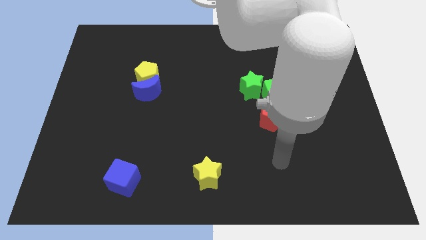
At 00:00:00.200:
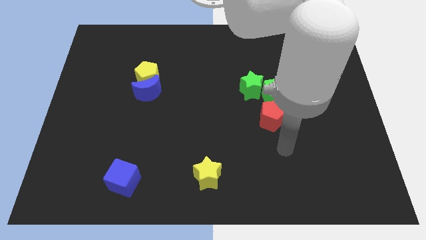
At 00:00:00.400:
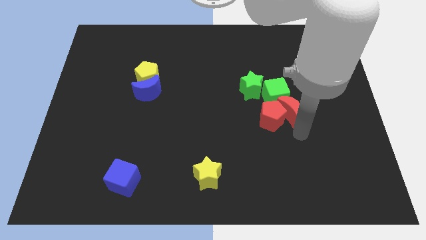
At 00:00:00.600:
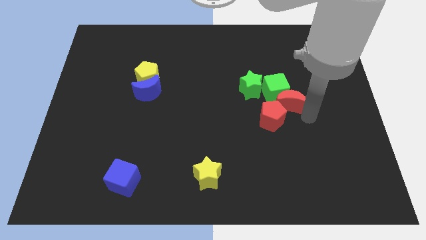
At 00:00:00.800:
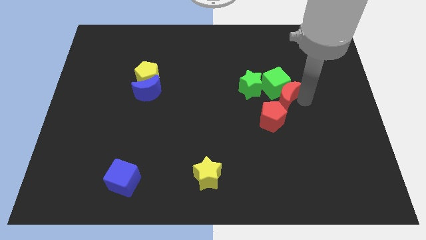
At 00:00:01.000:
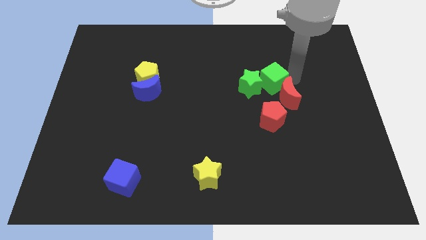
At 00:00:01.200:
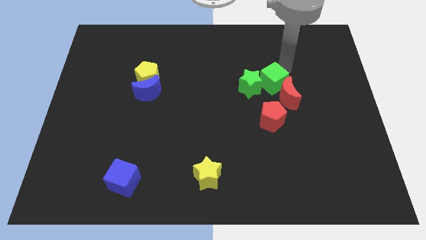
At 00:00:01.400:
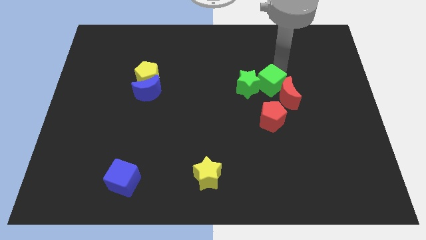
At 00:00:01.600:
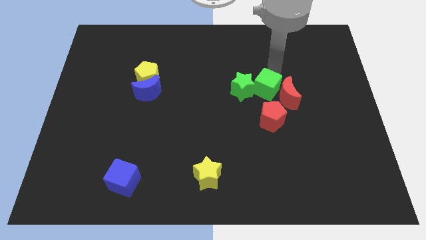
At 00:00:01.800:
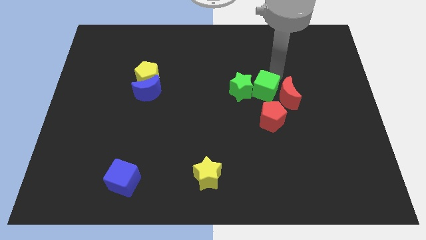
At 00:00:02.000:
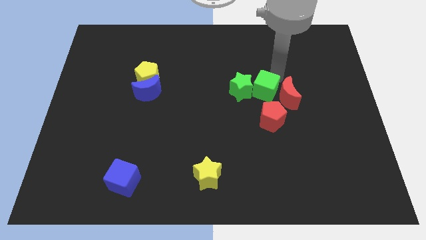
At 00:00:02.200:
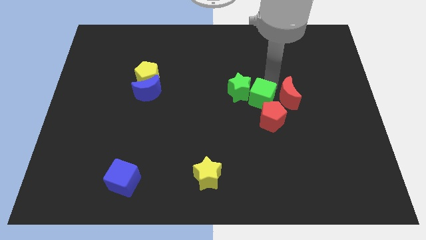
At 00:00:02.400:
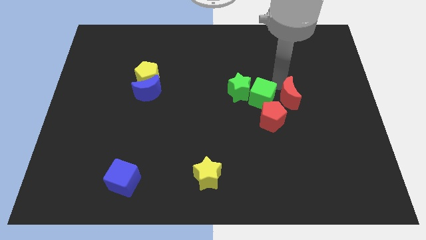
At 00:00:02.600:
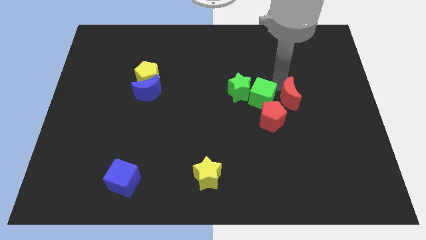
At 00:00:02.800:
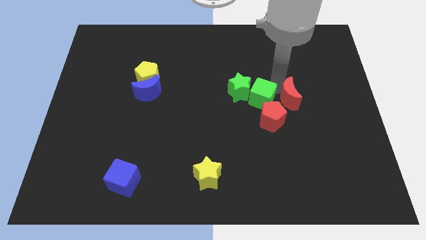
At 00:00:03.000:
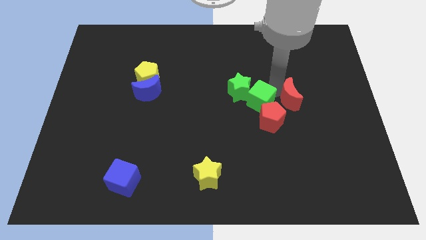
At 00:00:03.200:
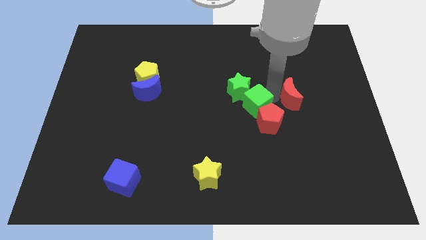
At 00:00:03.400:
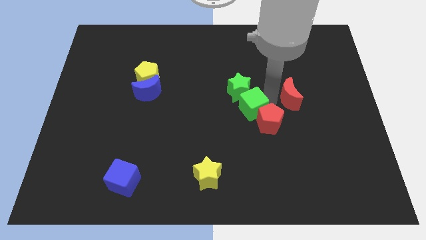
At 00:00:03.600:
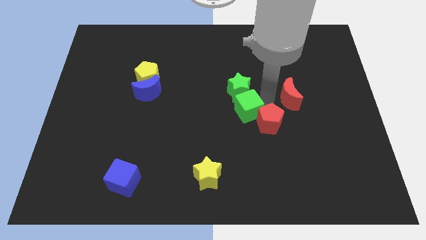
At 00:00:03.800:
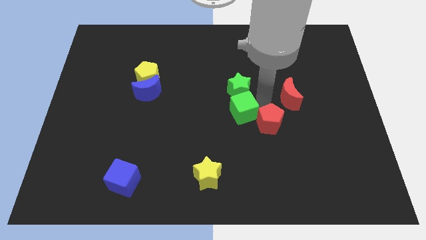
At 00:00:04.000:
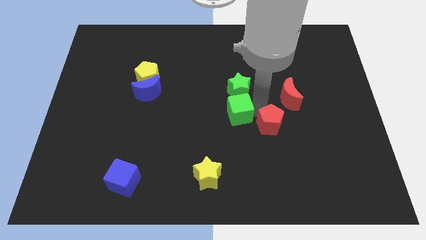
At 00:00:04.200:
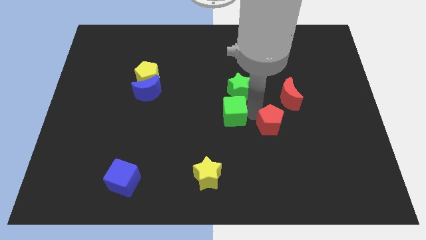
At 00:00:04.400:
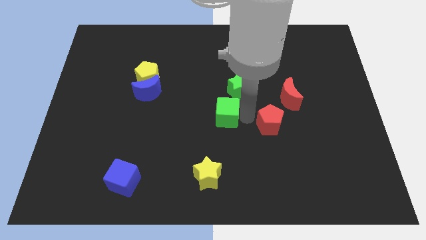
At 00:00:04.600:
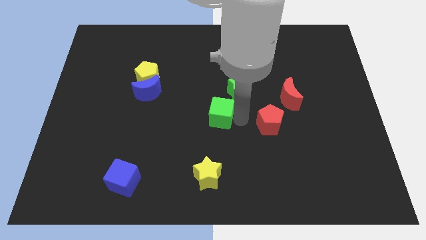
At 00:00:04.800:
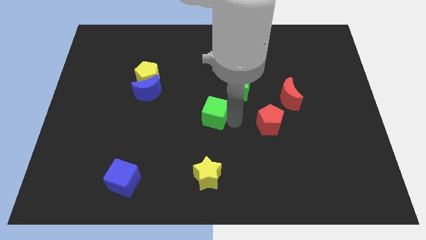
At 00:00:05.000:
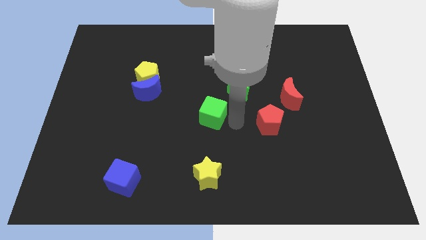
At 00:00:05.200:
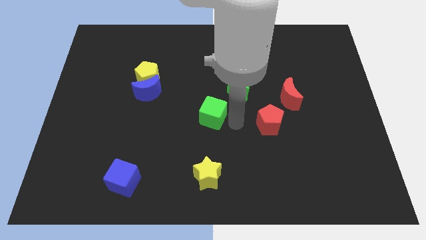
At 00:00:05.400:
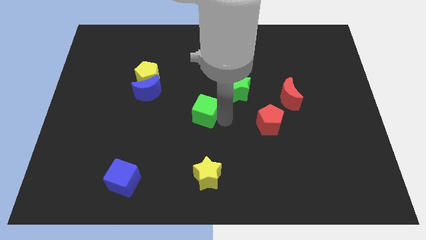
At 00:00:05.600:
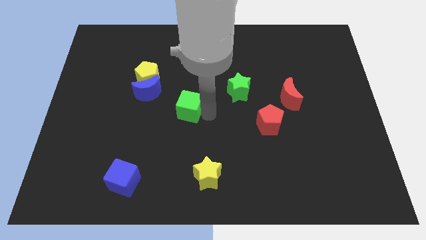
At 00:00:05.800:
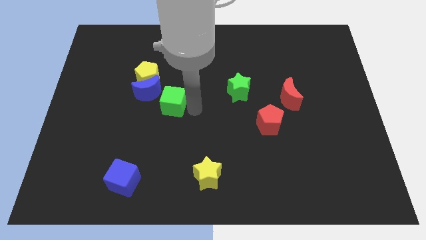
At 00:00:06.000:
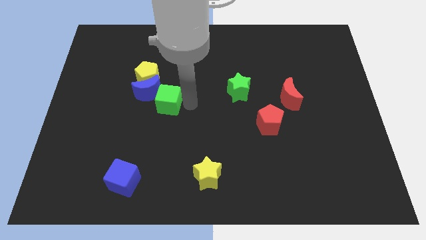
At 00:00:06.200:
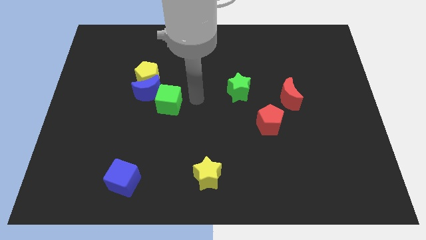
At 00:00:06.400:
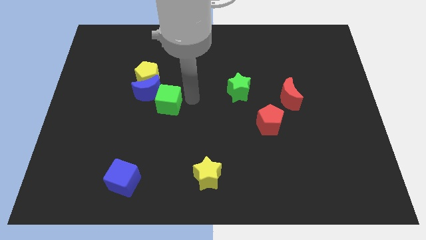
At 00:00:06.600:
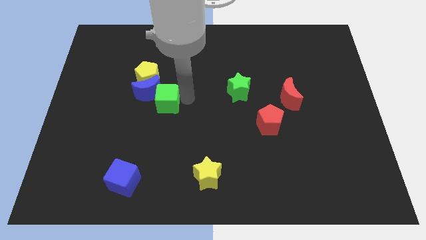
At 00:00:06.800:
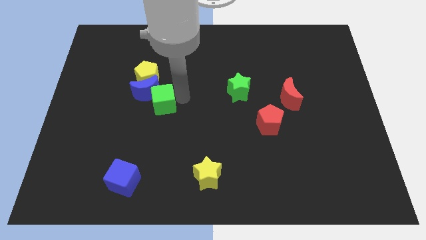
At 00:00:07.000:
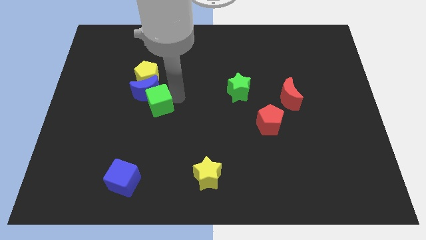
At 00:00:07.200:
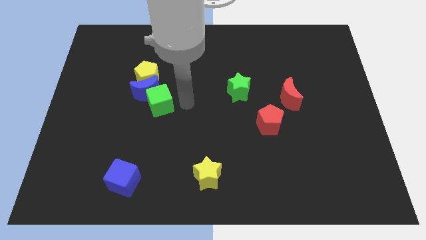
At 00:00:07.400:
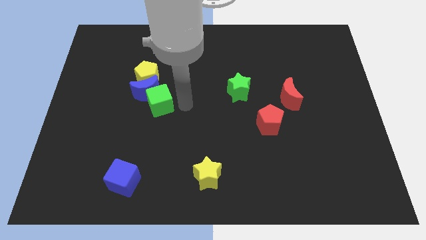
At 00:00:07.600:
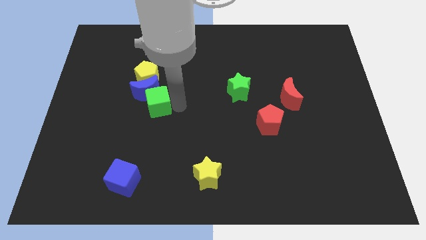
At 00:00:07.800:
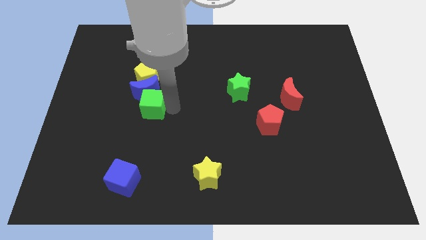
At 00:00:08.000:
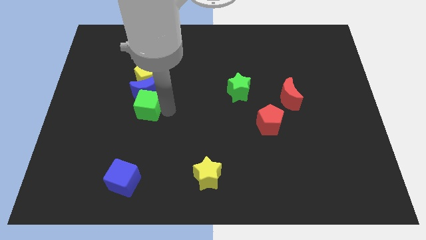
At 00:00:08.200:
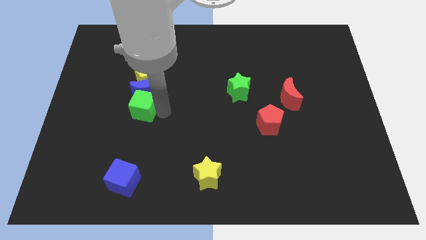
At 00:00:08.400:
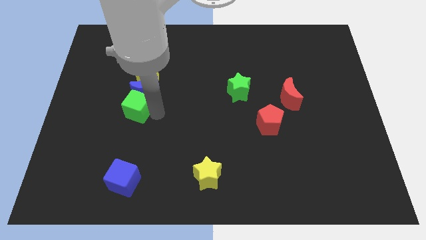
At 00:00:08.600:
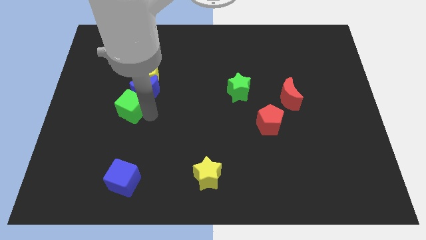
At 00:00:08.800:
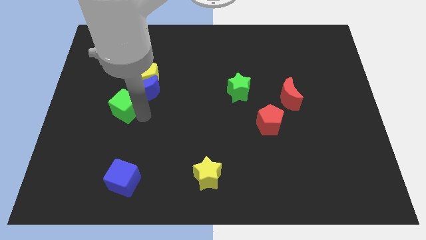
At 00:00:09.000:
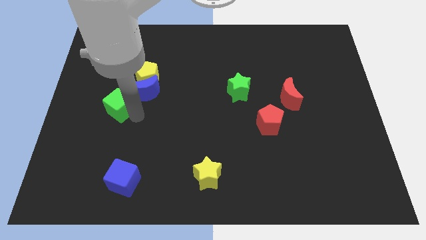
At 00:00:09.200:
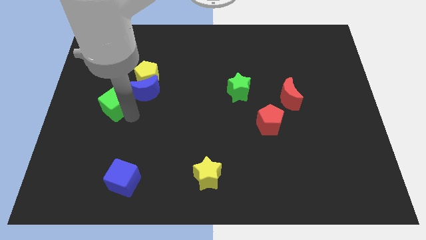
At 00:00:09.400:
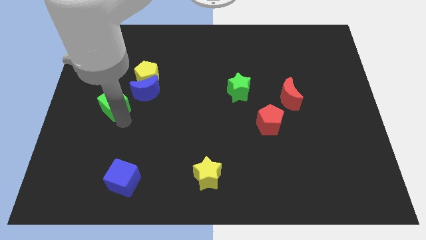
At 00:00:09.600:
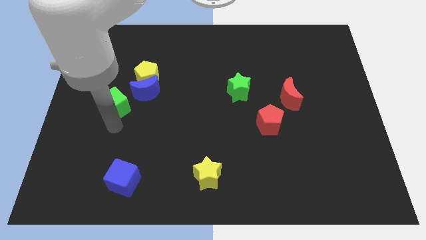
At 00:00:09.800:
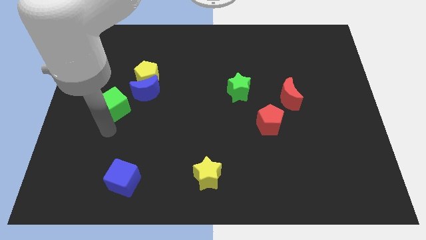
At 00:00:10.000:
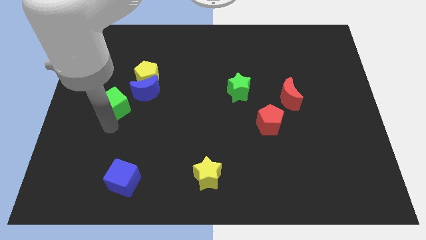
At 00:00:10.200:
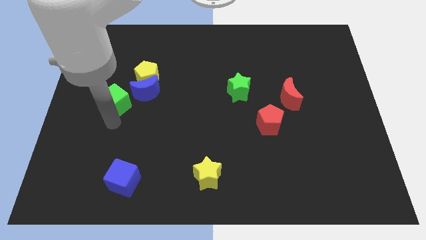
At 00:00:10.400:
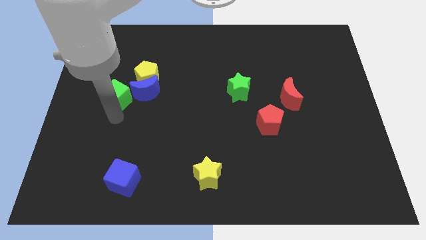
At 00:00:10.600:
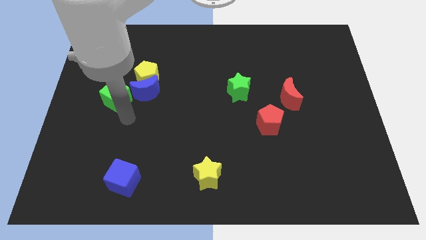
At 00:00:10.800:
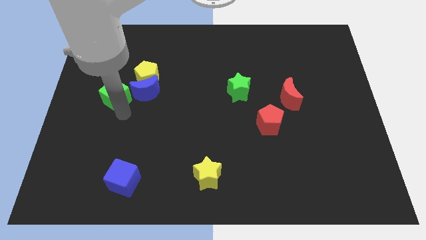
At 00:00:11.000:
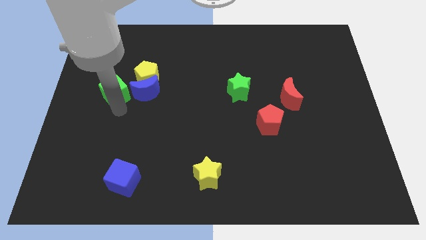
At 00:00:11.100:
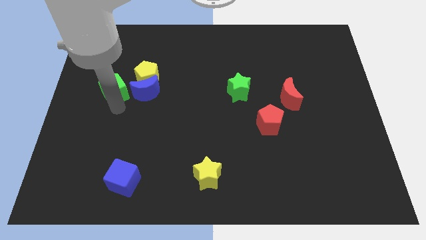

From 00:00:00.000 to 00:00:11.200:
slide the green cube to the left of the yellow pentagon

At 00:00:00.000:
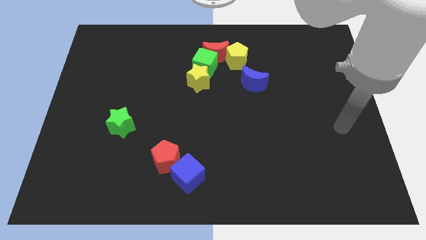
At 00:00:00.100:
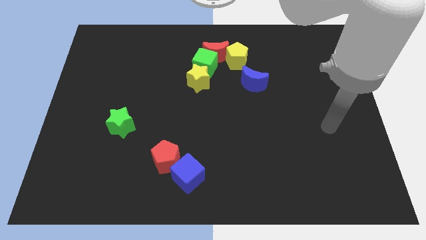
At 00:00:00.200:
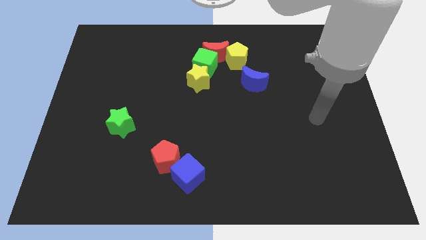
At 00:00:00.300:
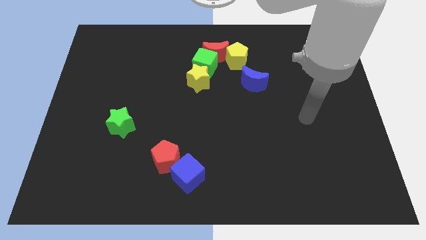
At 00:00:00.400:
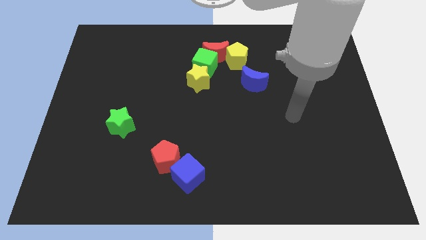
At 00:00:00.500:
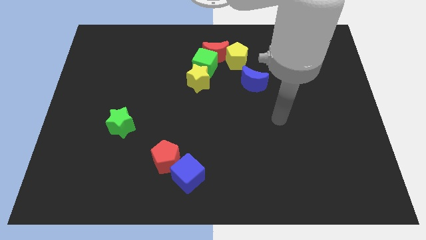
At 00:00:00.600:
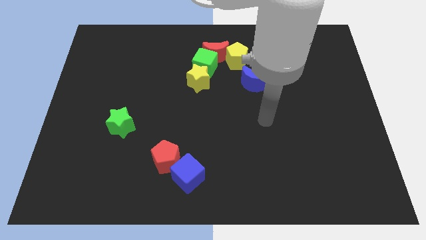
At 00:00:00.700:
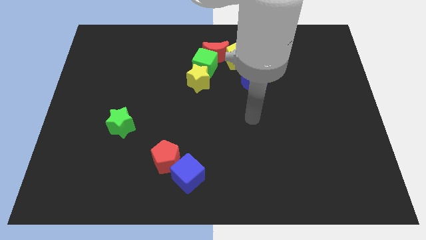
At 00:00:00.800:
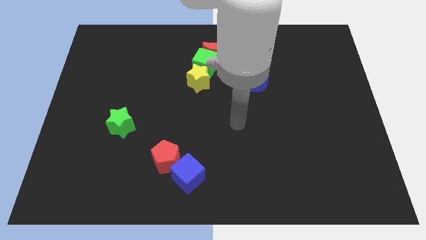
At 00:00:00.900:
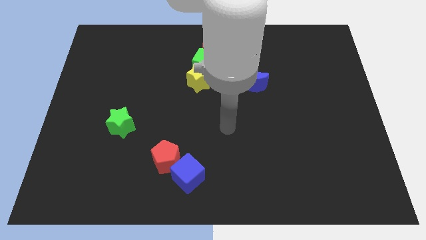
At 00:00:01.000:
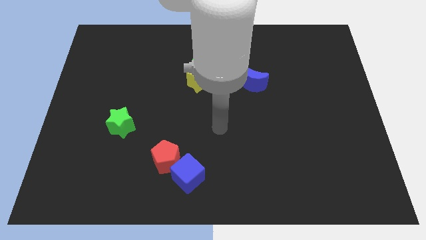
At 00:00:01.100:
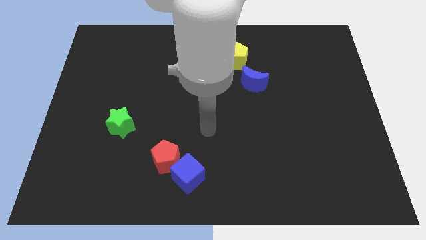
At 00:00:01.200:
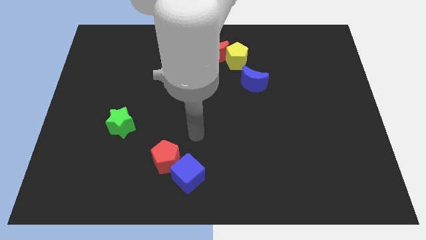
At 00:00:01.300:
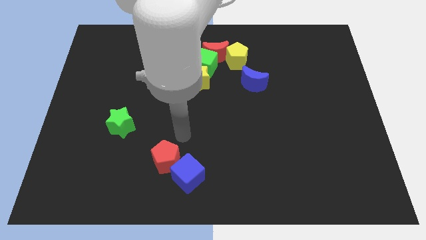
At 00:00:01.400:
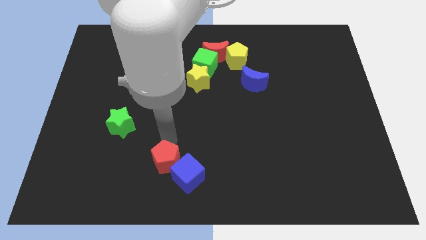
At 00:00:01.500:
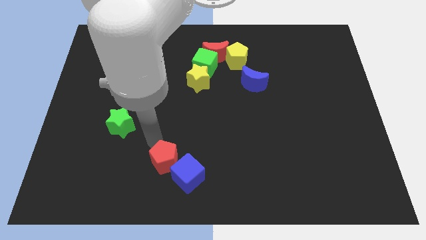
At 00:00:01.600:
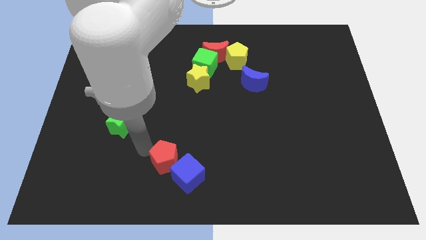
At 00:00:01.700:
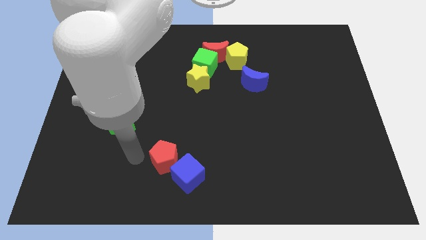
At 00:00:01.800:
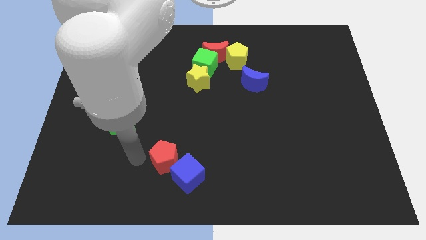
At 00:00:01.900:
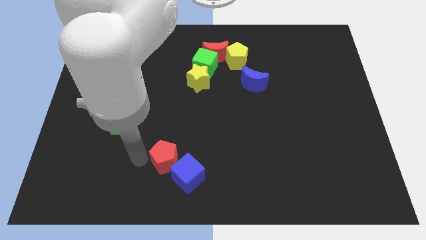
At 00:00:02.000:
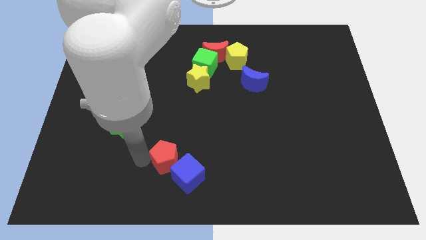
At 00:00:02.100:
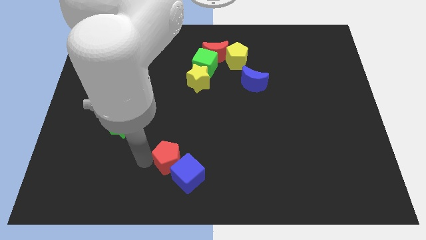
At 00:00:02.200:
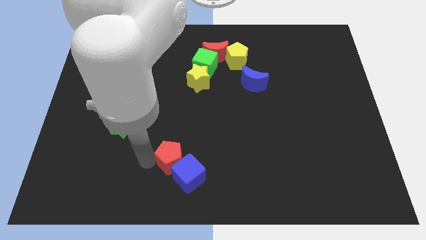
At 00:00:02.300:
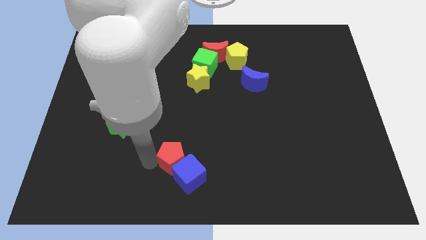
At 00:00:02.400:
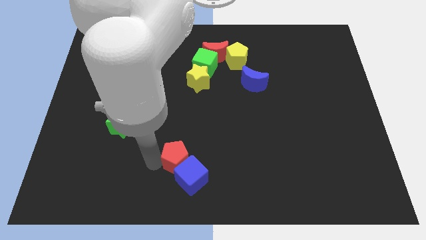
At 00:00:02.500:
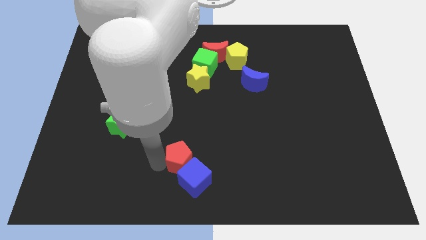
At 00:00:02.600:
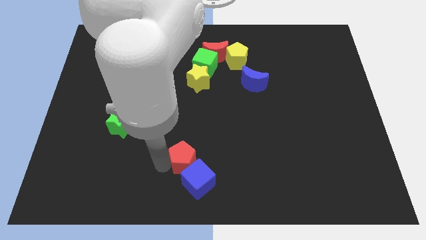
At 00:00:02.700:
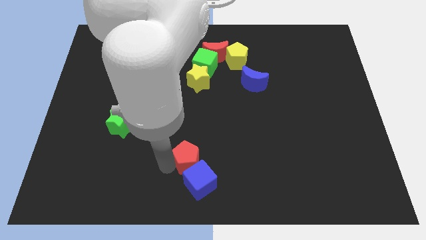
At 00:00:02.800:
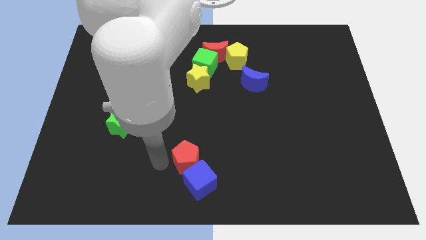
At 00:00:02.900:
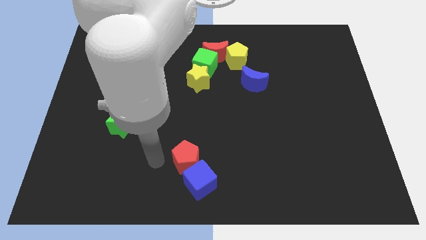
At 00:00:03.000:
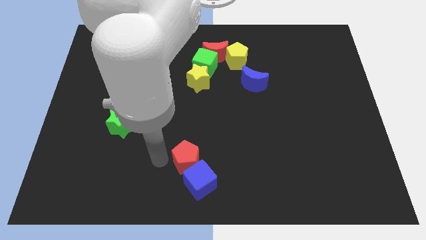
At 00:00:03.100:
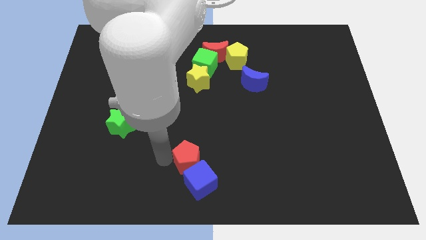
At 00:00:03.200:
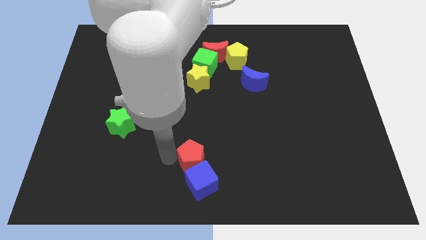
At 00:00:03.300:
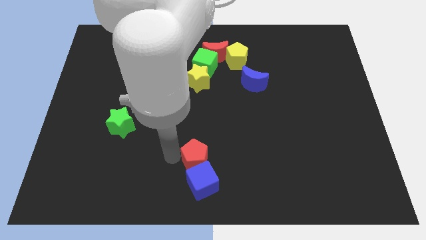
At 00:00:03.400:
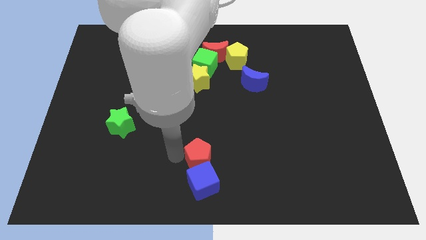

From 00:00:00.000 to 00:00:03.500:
put the red pentagon to the top right of the blue cube
